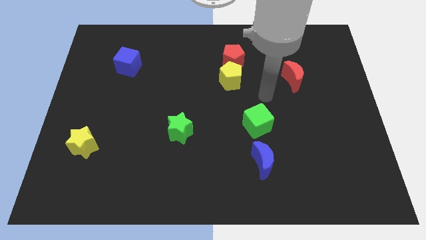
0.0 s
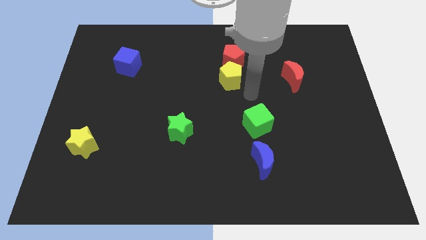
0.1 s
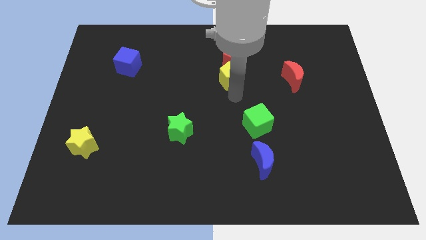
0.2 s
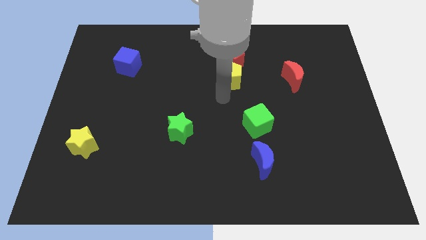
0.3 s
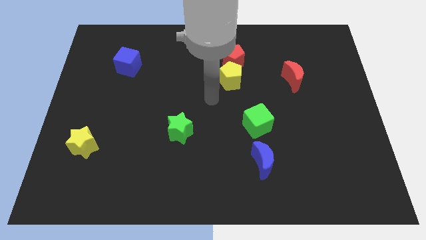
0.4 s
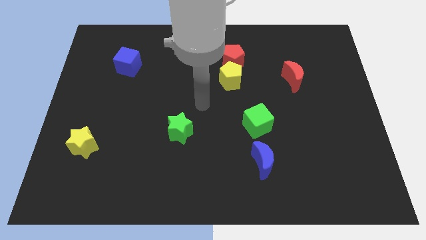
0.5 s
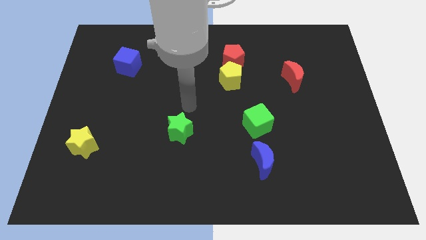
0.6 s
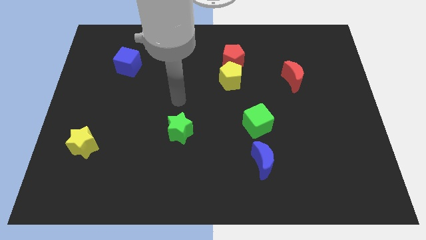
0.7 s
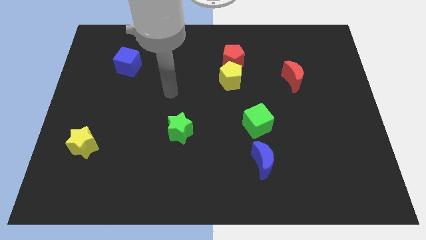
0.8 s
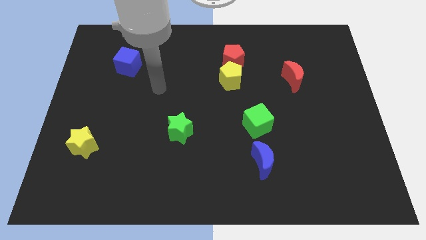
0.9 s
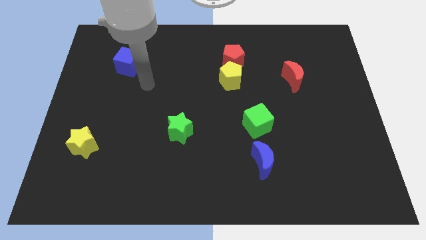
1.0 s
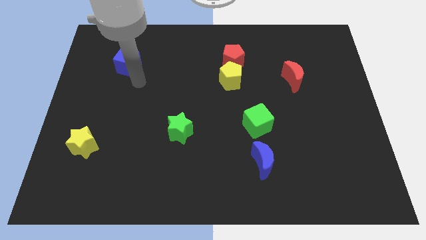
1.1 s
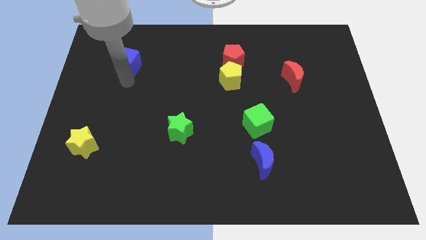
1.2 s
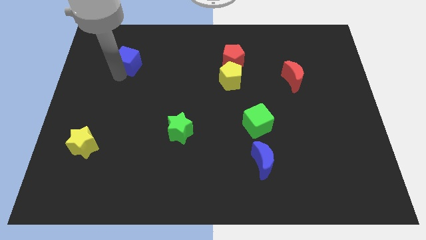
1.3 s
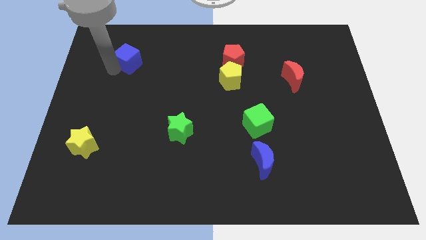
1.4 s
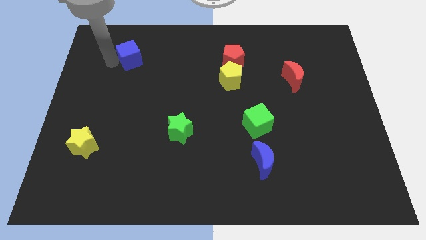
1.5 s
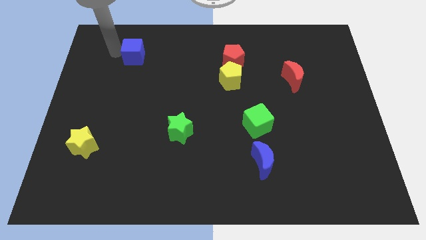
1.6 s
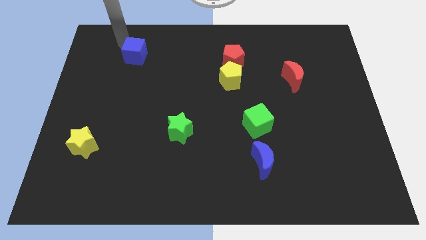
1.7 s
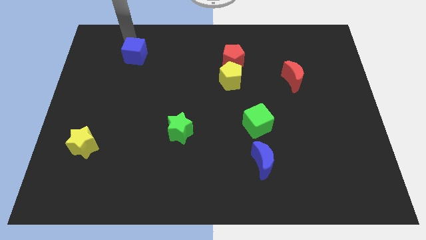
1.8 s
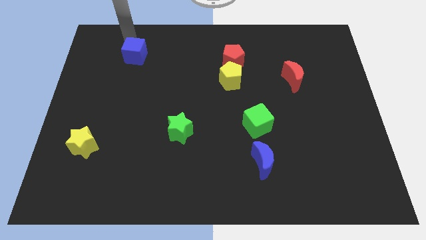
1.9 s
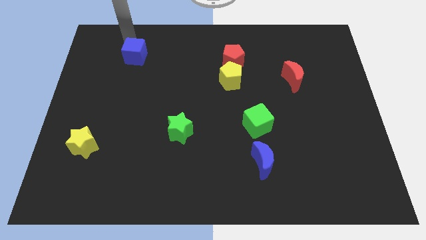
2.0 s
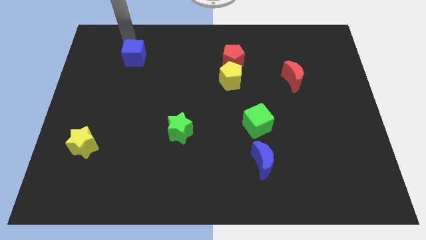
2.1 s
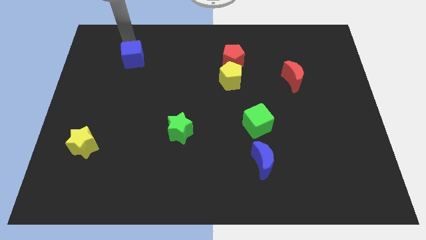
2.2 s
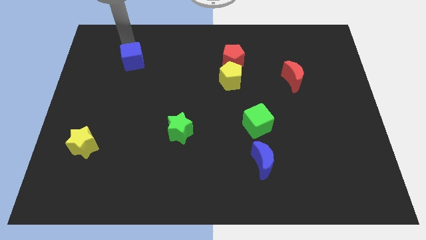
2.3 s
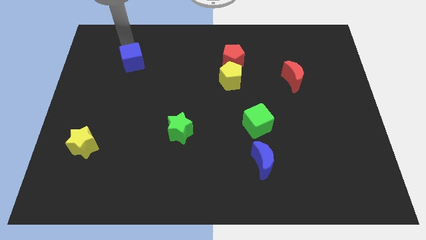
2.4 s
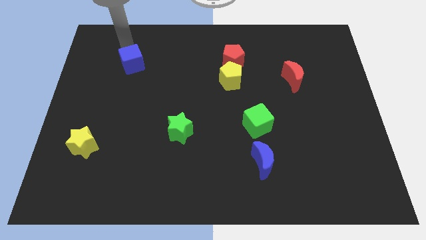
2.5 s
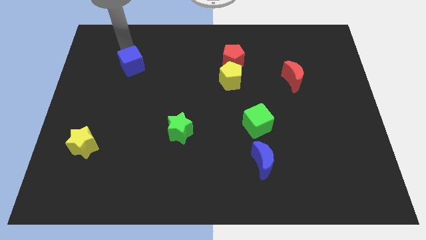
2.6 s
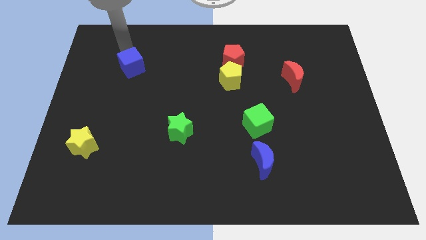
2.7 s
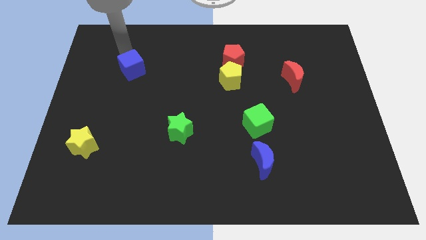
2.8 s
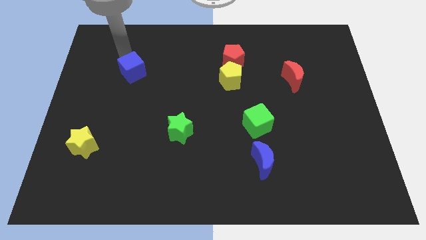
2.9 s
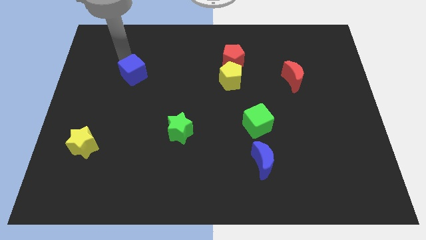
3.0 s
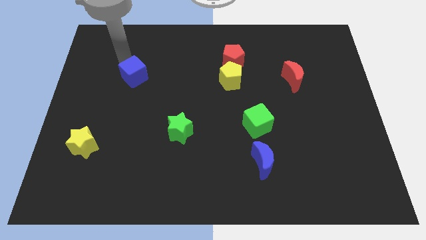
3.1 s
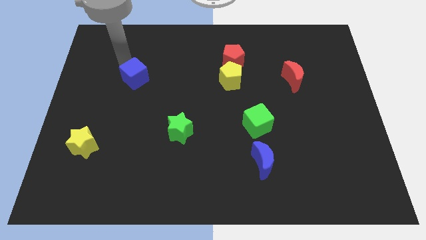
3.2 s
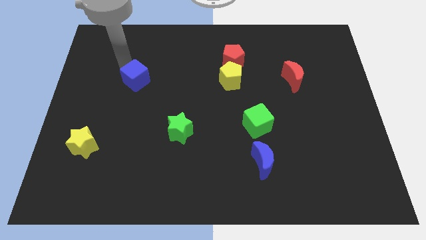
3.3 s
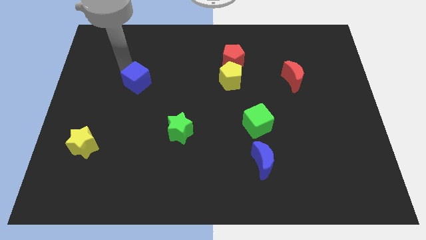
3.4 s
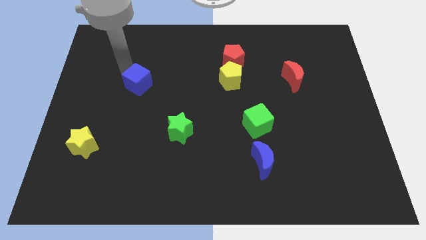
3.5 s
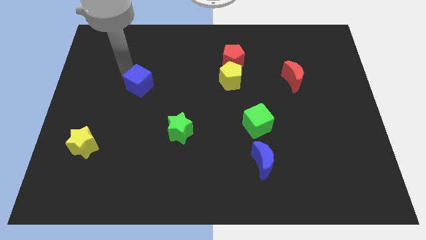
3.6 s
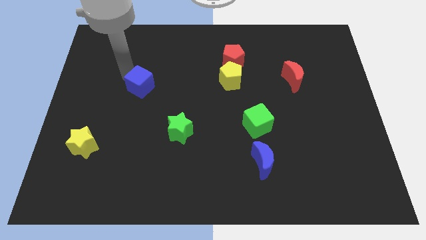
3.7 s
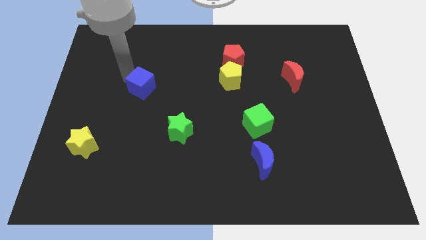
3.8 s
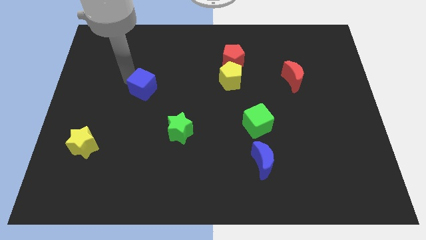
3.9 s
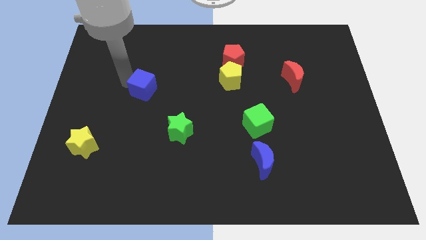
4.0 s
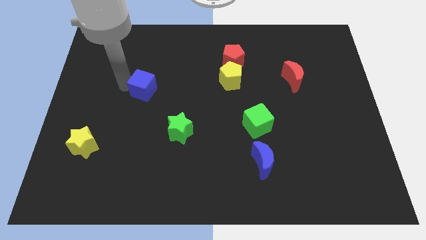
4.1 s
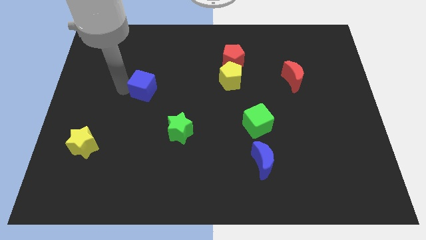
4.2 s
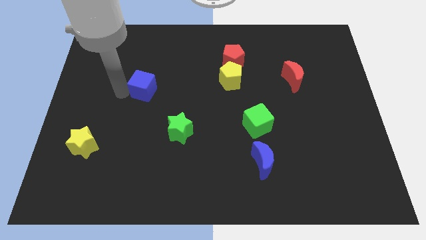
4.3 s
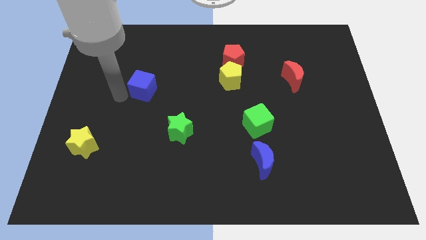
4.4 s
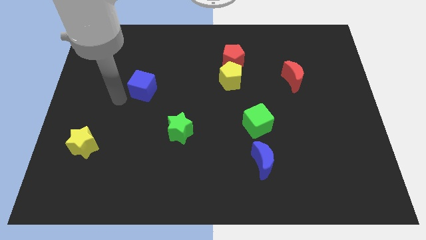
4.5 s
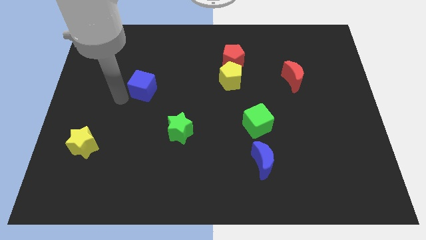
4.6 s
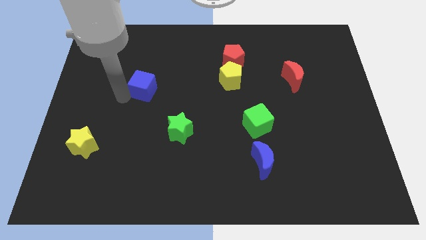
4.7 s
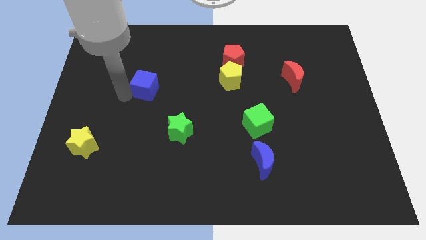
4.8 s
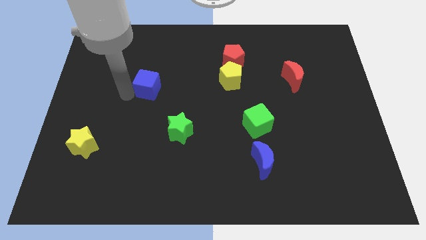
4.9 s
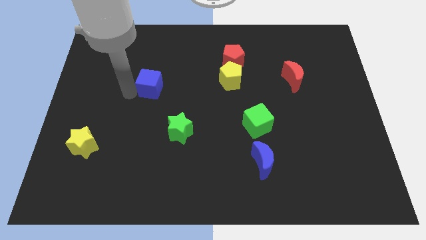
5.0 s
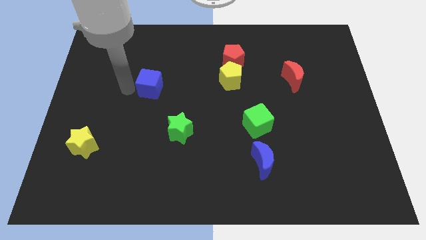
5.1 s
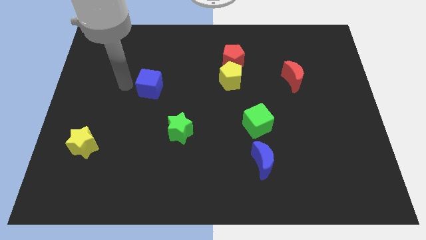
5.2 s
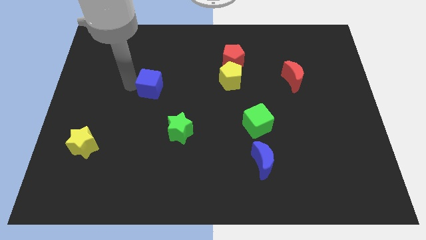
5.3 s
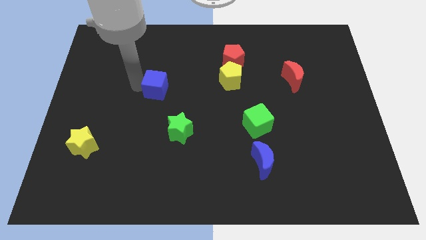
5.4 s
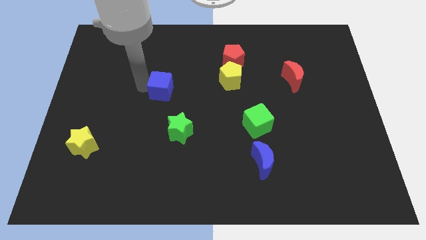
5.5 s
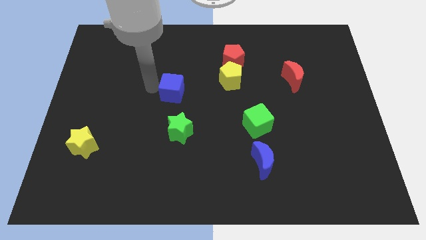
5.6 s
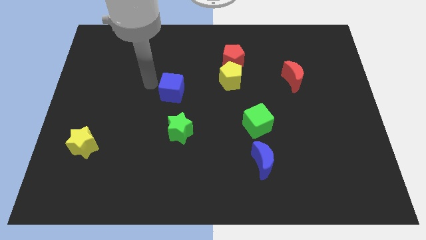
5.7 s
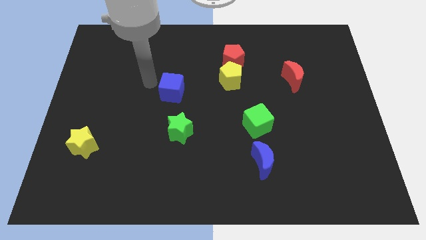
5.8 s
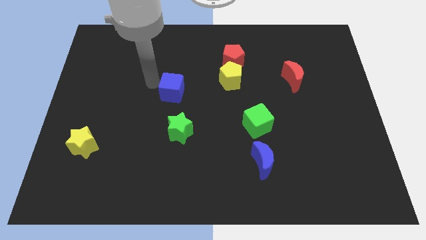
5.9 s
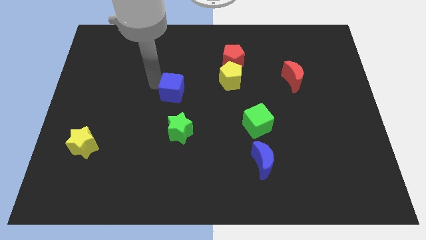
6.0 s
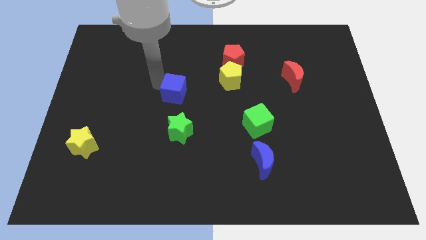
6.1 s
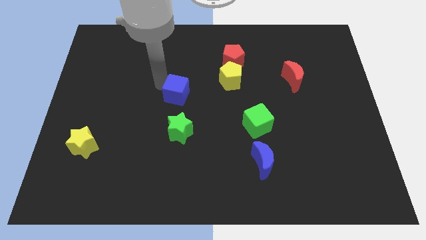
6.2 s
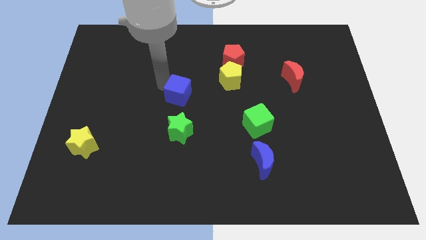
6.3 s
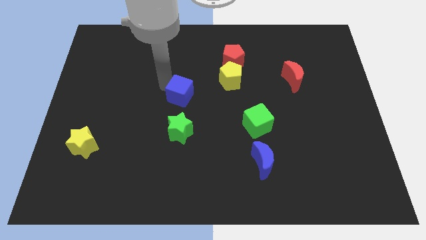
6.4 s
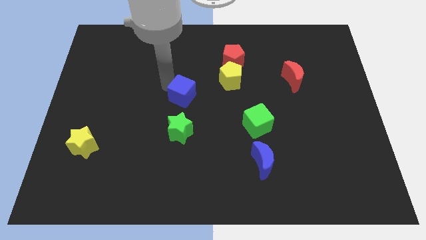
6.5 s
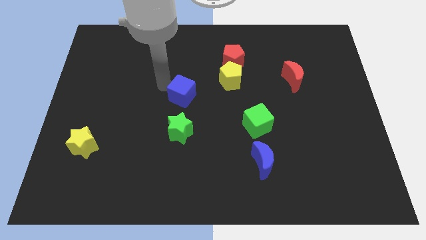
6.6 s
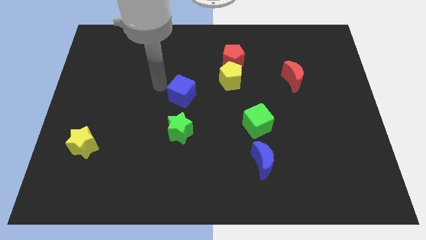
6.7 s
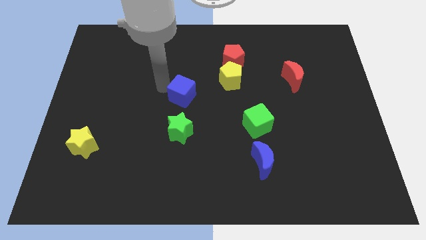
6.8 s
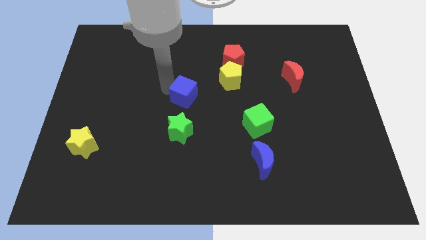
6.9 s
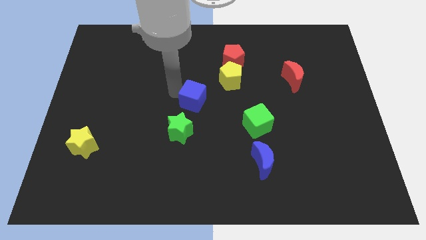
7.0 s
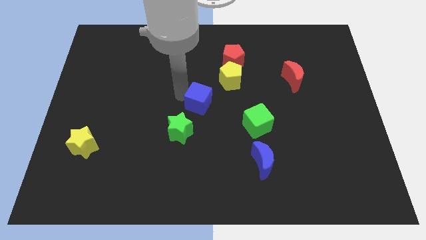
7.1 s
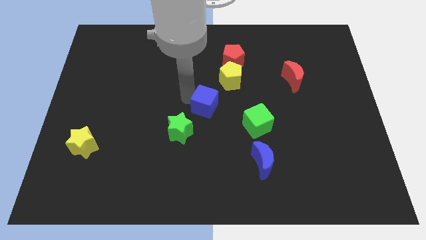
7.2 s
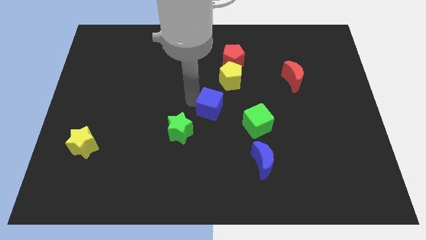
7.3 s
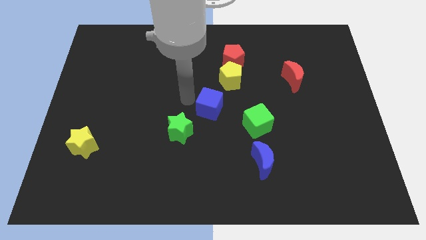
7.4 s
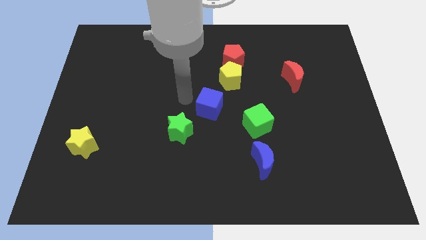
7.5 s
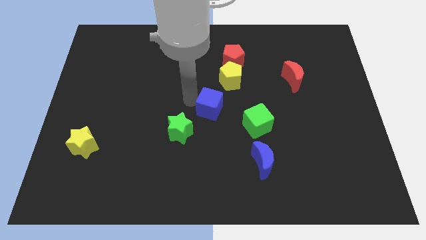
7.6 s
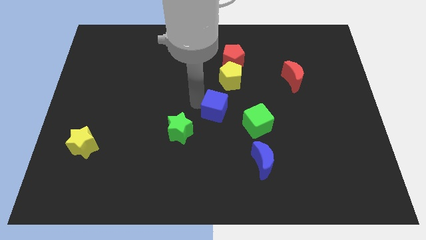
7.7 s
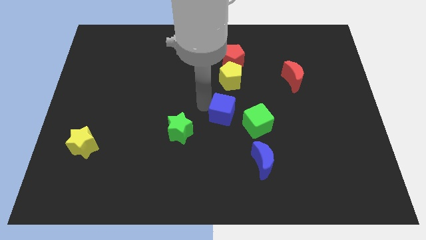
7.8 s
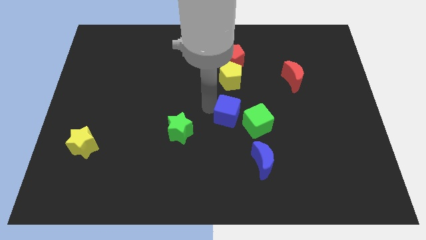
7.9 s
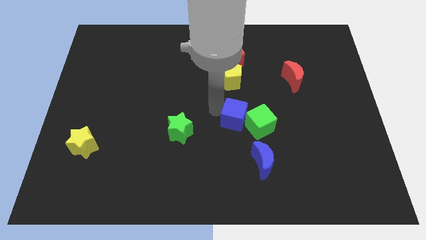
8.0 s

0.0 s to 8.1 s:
push the blue cube towards the green cube
